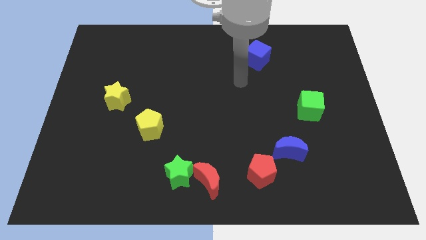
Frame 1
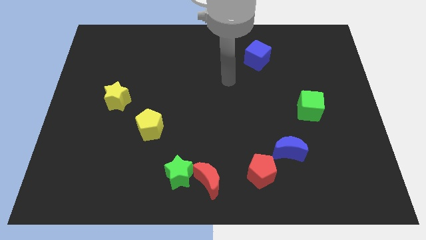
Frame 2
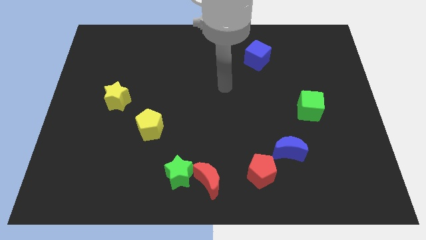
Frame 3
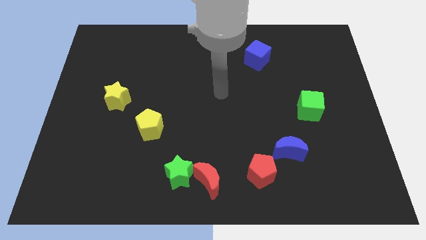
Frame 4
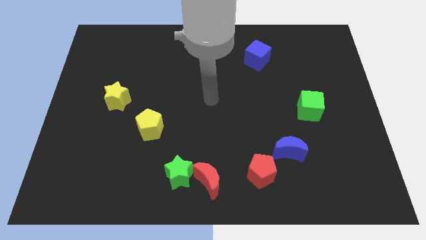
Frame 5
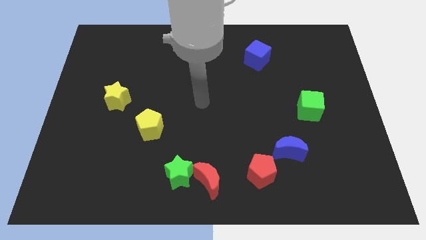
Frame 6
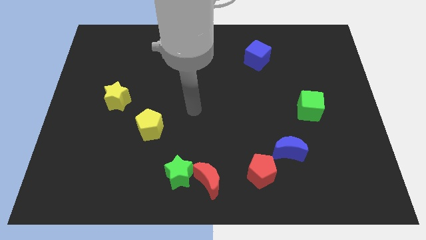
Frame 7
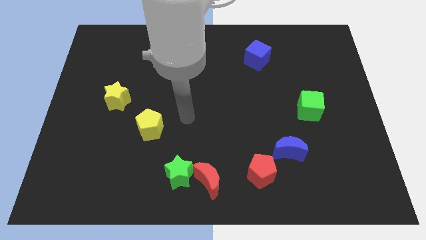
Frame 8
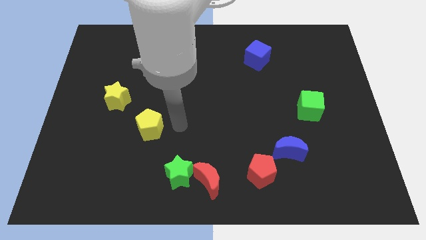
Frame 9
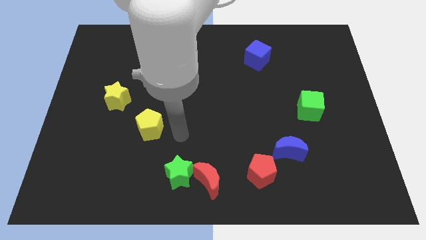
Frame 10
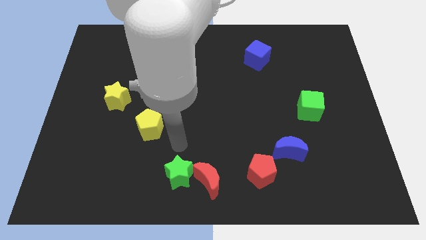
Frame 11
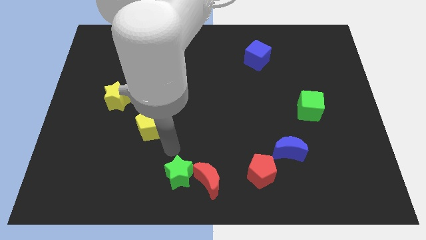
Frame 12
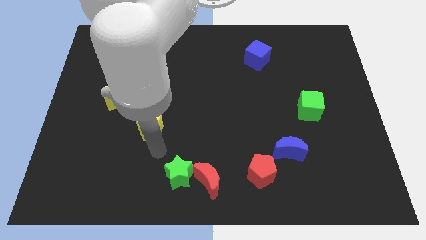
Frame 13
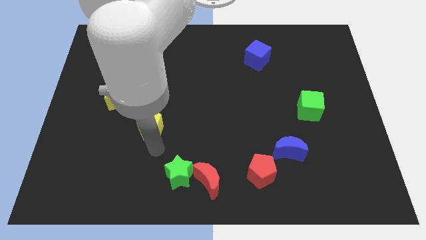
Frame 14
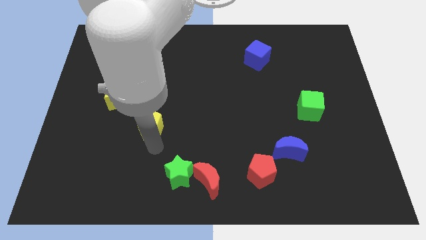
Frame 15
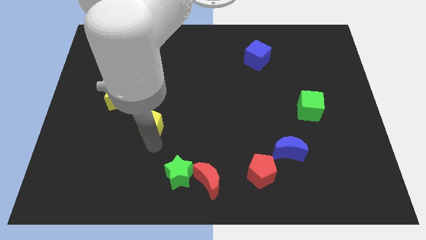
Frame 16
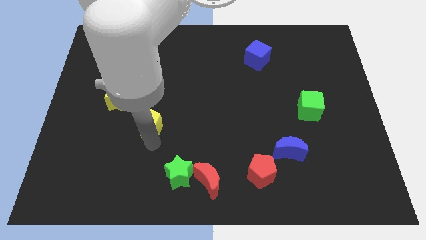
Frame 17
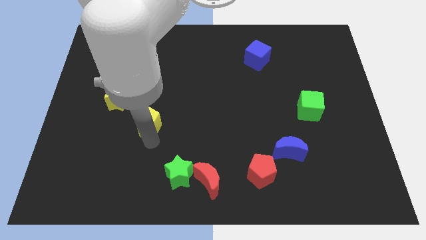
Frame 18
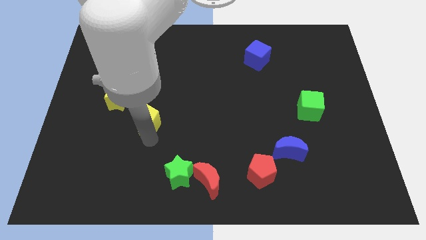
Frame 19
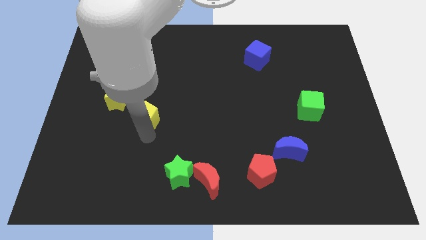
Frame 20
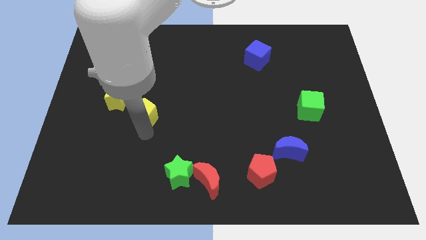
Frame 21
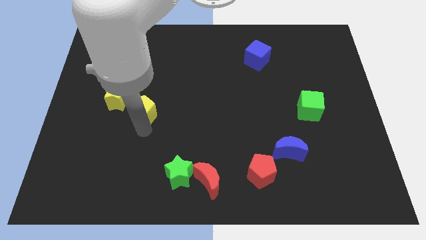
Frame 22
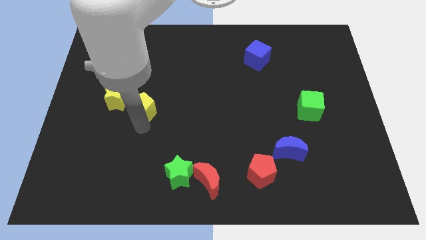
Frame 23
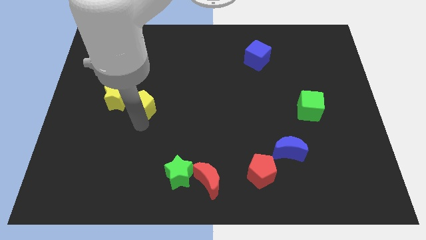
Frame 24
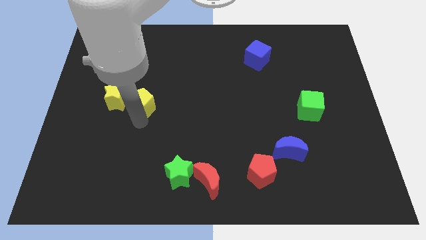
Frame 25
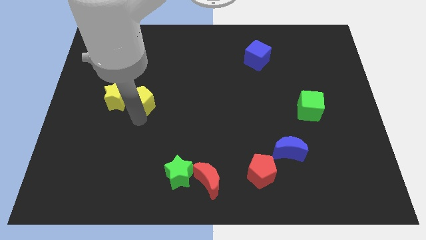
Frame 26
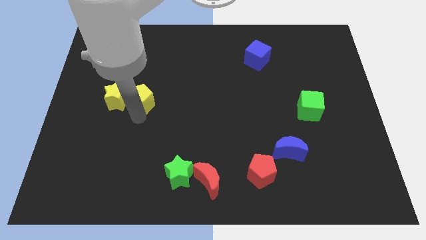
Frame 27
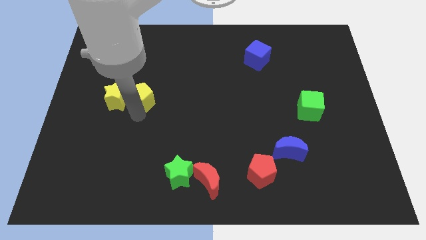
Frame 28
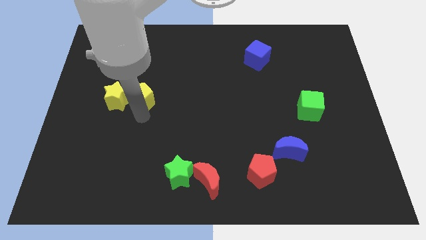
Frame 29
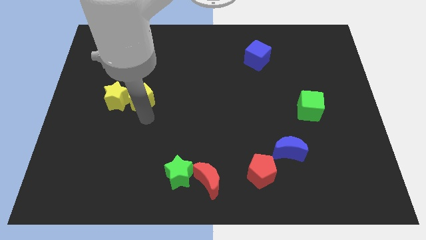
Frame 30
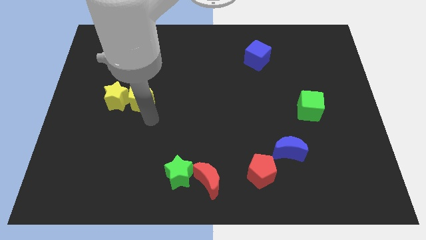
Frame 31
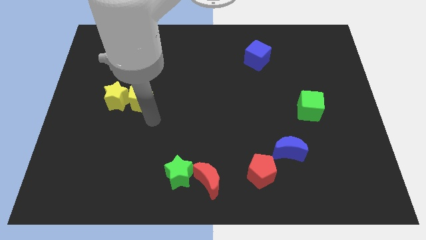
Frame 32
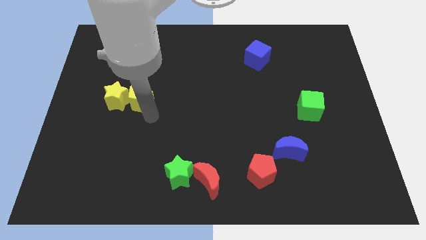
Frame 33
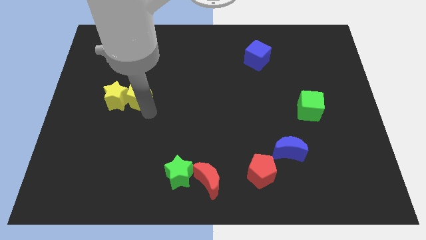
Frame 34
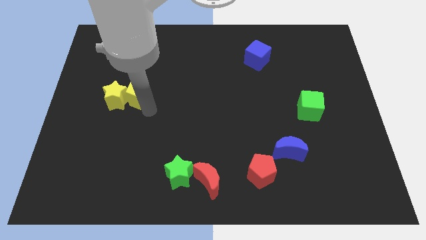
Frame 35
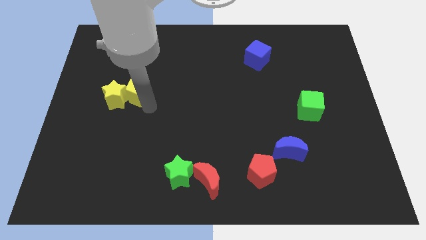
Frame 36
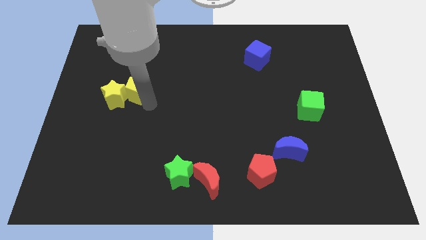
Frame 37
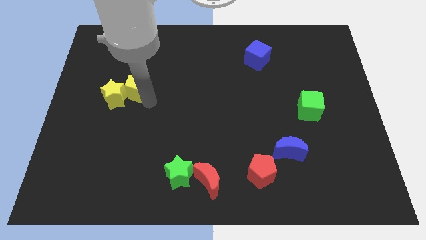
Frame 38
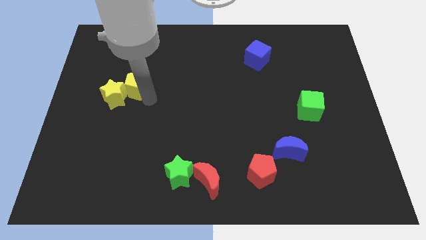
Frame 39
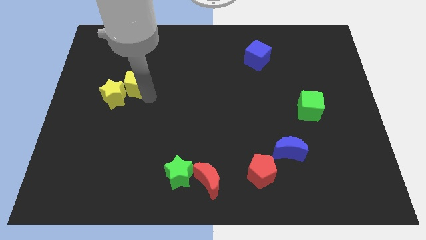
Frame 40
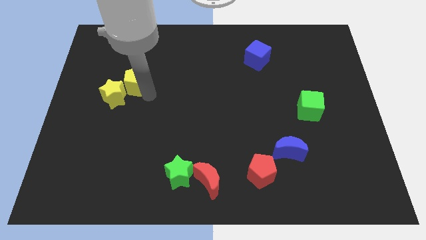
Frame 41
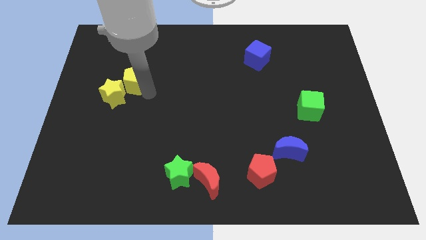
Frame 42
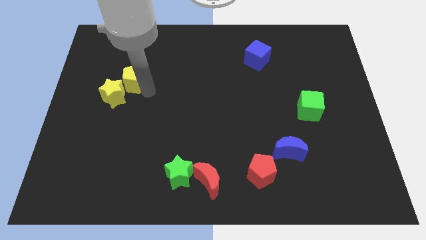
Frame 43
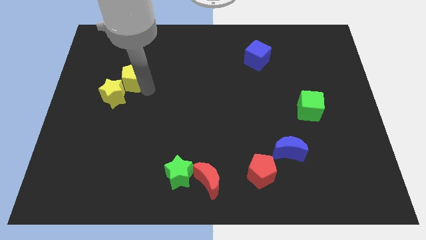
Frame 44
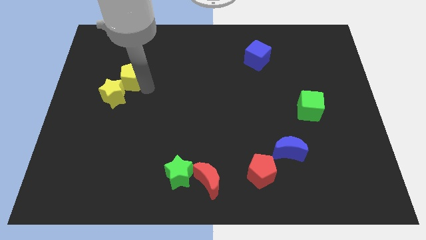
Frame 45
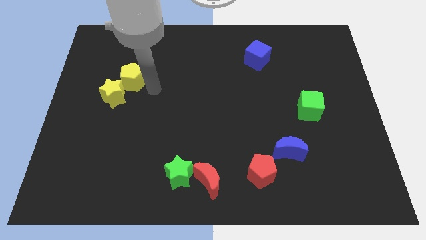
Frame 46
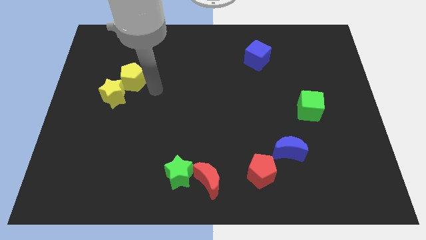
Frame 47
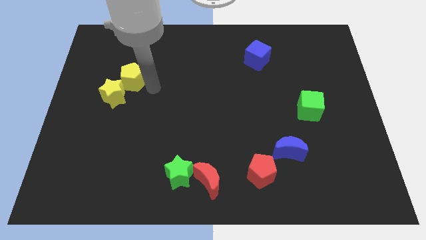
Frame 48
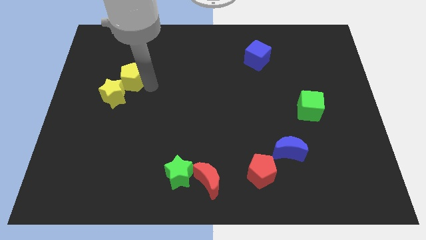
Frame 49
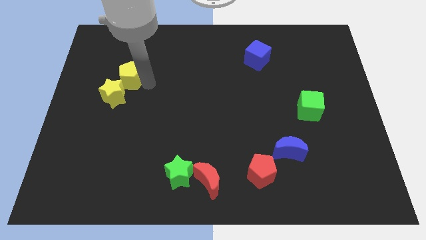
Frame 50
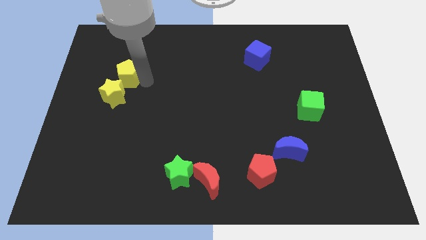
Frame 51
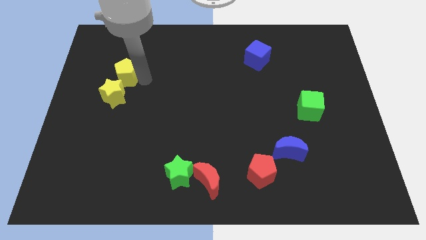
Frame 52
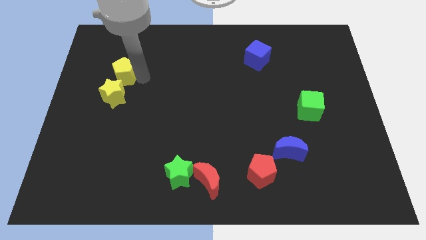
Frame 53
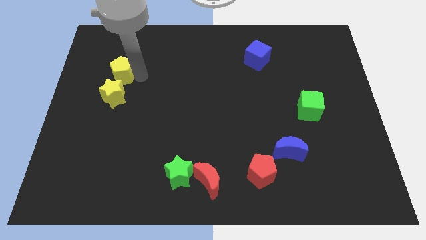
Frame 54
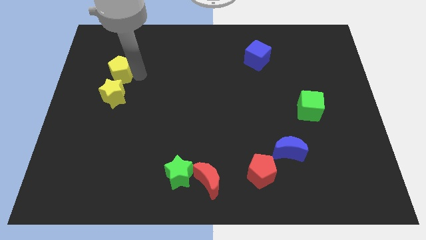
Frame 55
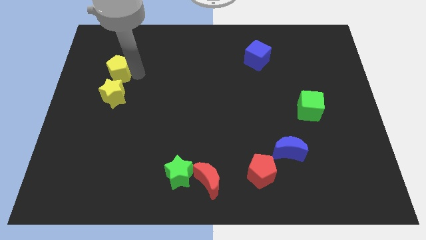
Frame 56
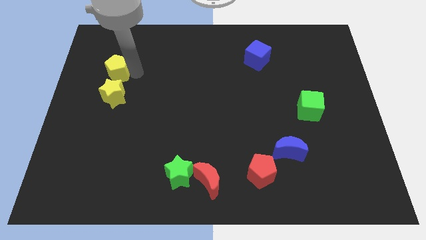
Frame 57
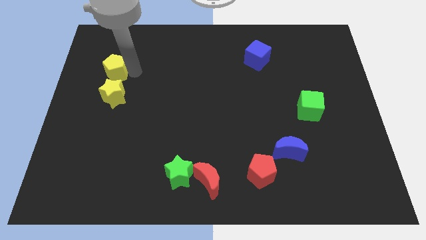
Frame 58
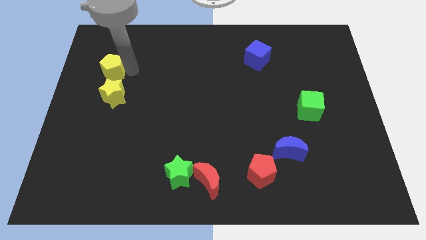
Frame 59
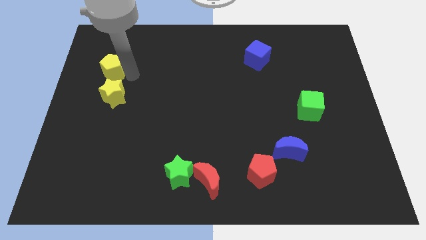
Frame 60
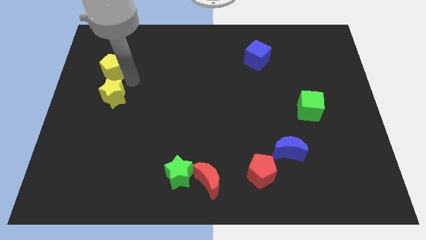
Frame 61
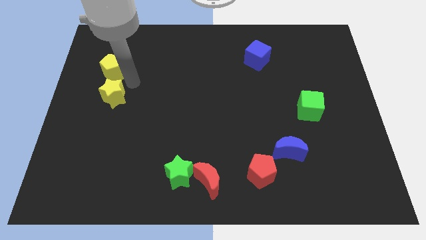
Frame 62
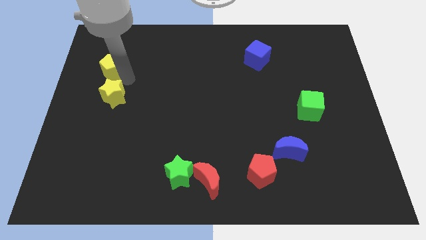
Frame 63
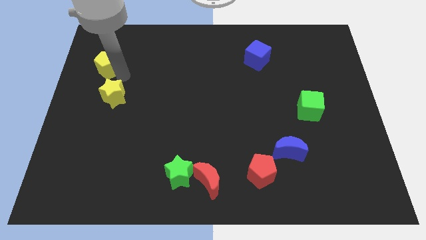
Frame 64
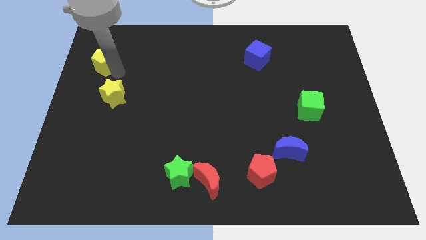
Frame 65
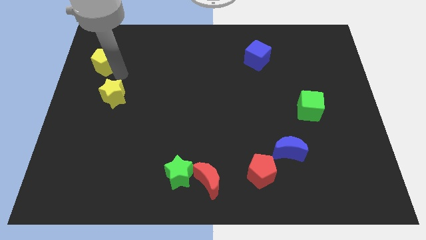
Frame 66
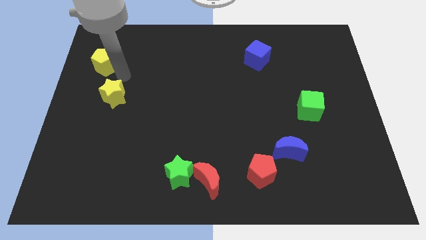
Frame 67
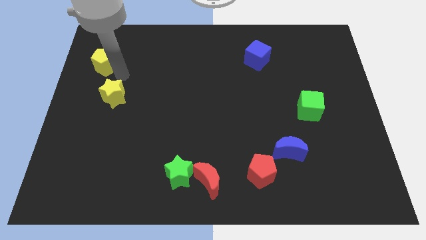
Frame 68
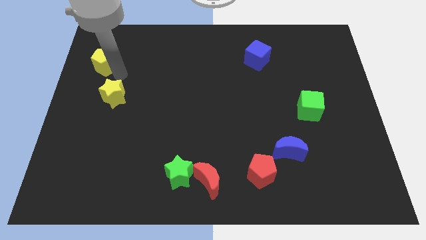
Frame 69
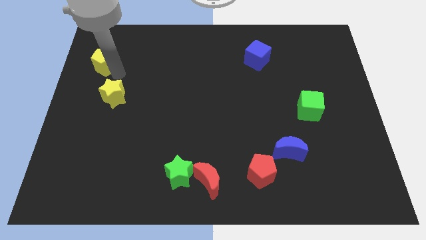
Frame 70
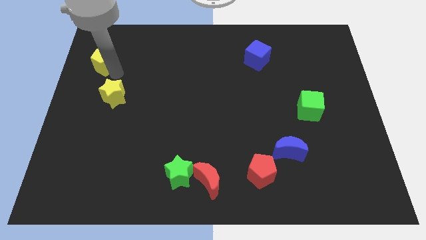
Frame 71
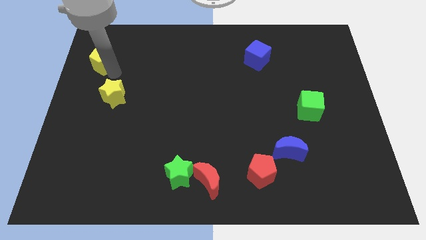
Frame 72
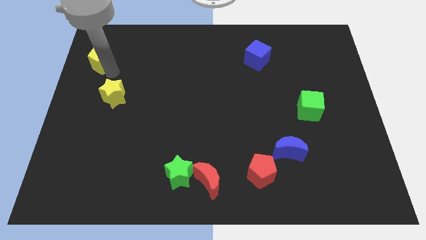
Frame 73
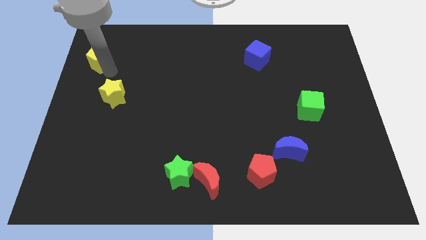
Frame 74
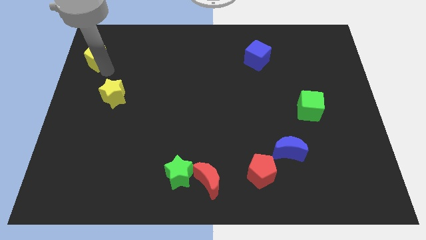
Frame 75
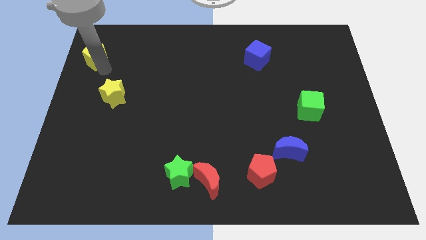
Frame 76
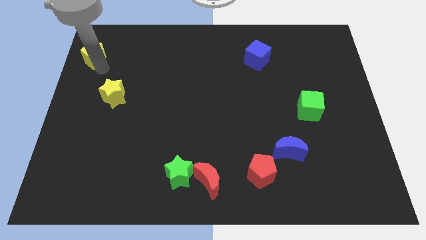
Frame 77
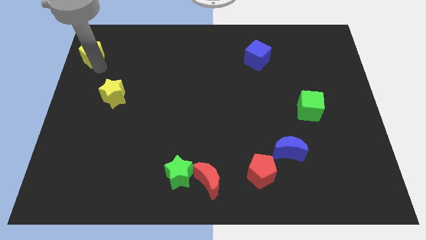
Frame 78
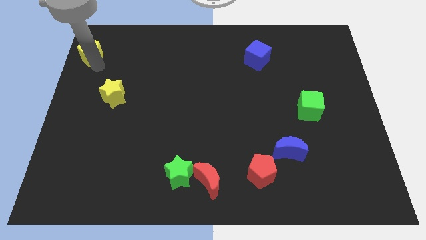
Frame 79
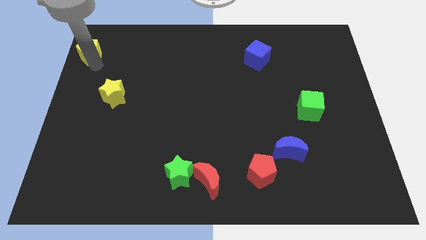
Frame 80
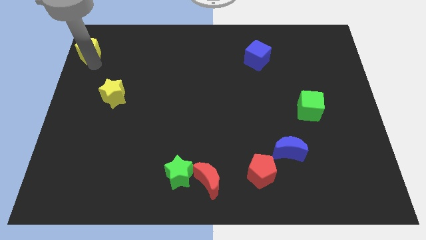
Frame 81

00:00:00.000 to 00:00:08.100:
put the yellow pentagon to the top left of the board
